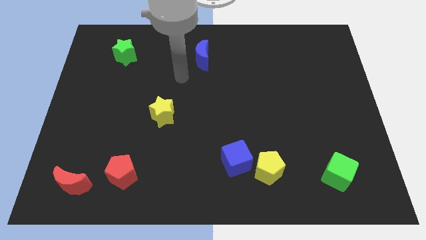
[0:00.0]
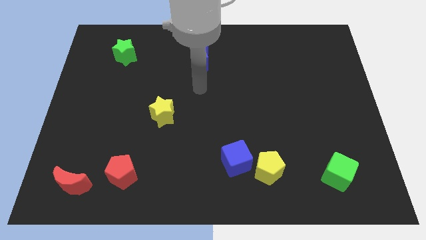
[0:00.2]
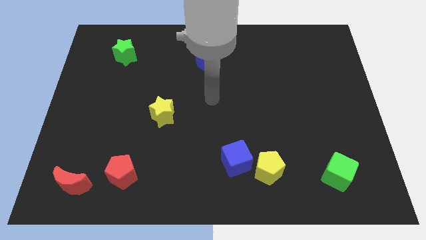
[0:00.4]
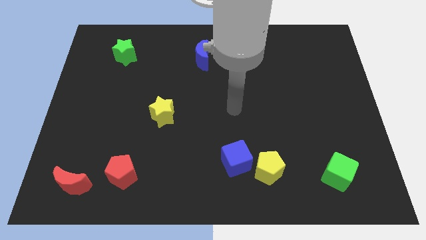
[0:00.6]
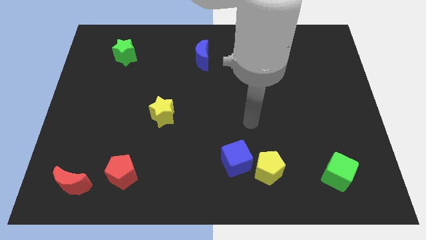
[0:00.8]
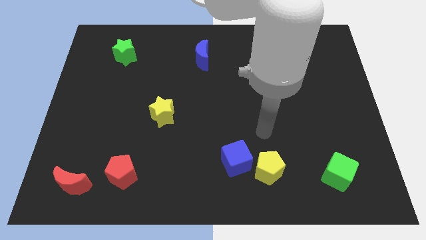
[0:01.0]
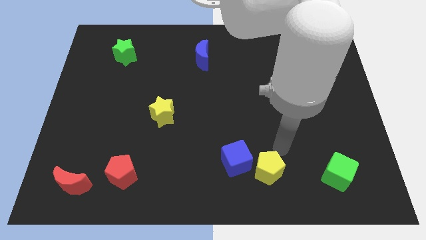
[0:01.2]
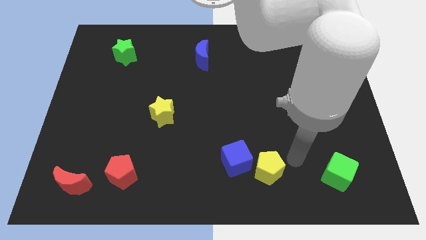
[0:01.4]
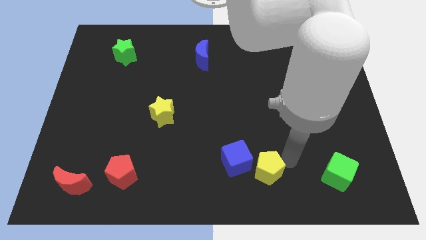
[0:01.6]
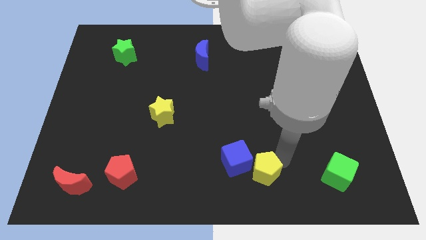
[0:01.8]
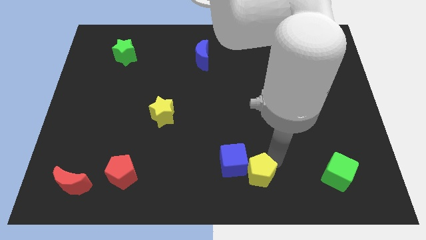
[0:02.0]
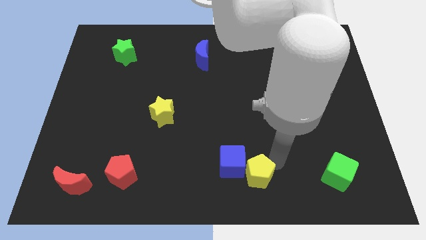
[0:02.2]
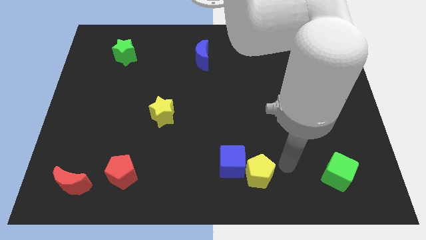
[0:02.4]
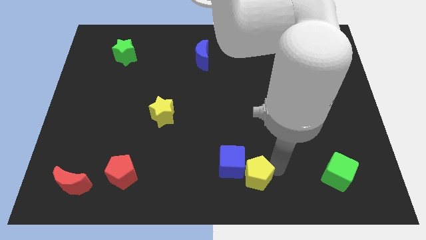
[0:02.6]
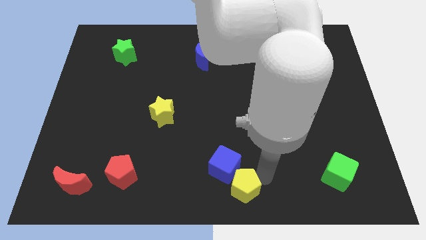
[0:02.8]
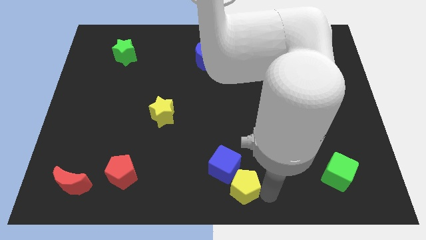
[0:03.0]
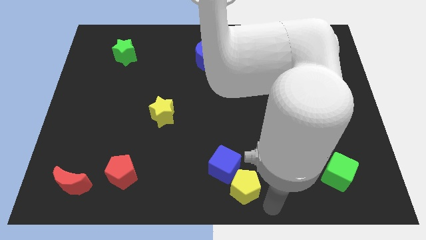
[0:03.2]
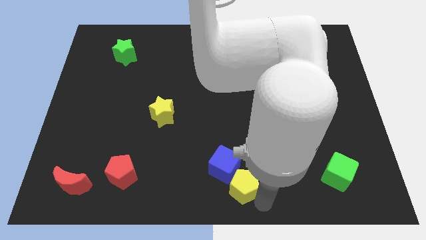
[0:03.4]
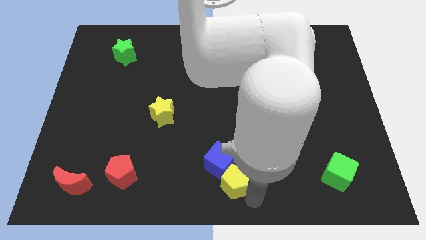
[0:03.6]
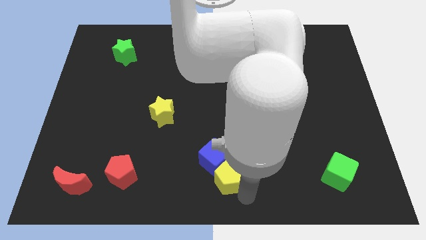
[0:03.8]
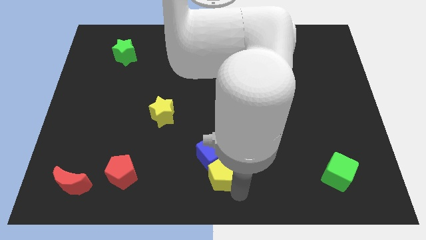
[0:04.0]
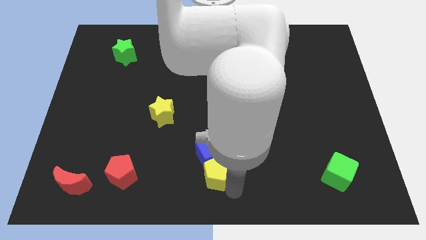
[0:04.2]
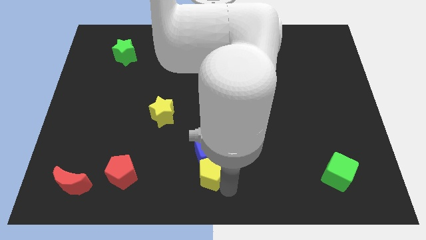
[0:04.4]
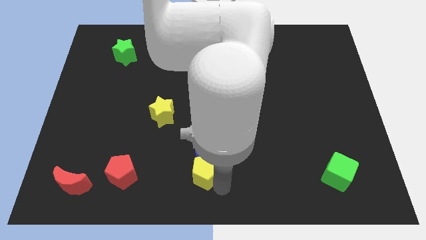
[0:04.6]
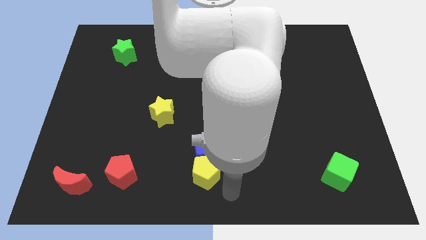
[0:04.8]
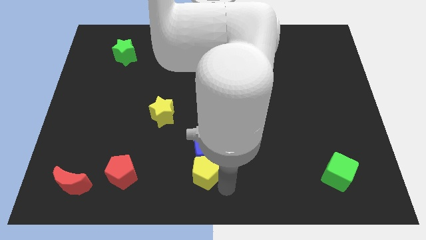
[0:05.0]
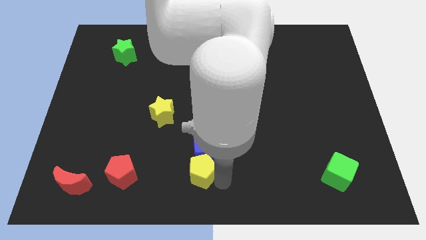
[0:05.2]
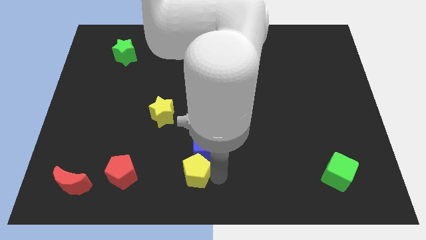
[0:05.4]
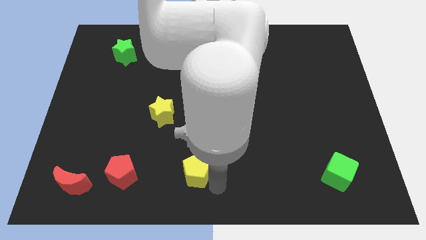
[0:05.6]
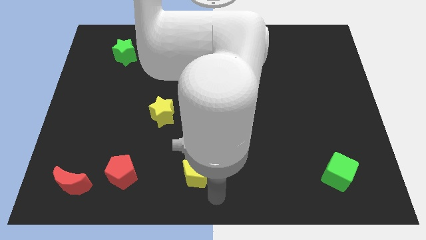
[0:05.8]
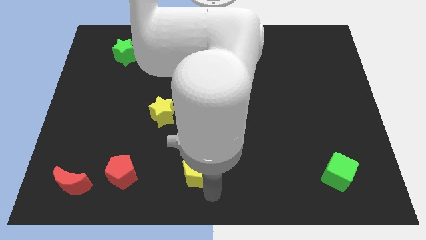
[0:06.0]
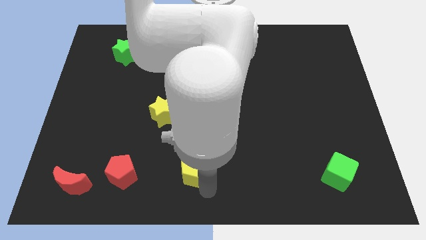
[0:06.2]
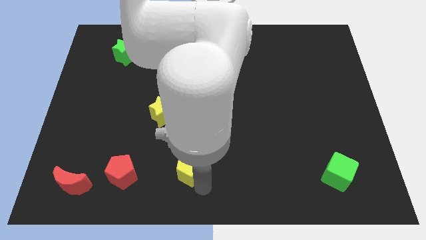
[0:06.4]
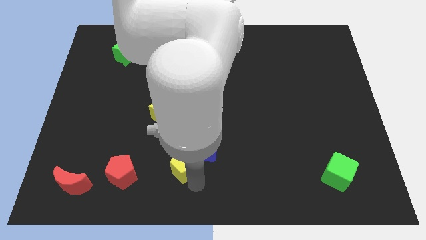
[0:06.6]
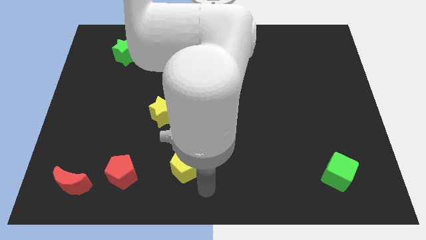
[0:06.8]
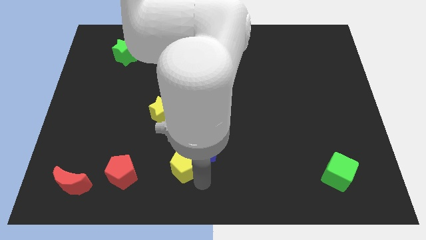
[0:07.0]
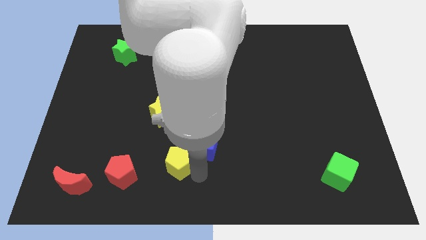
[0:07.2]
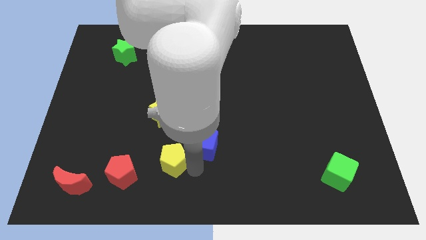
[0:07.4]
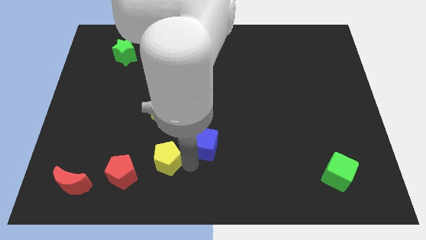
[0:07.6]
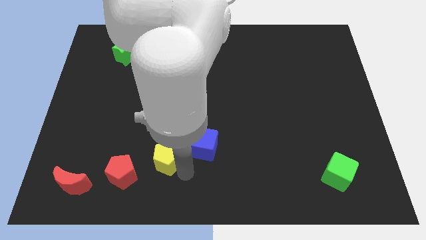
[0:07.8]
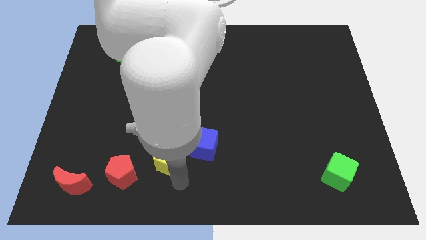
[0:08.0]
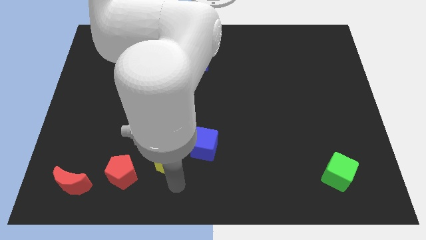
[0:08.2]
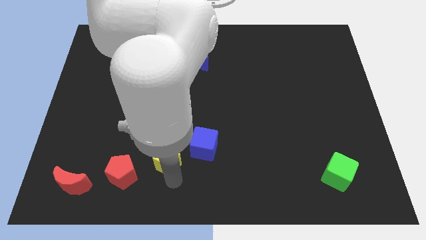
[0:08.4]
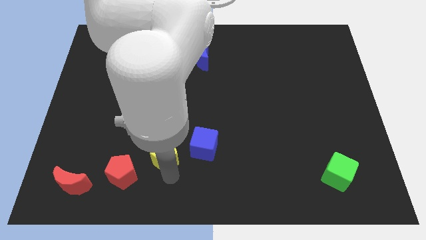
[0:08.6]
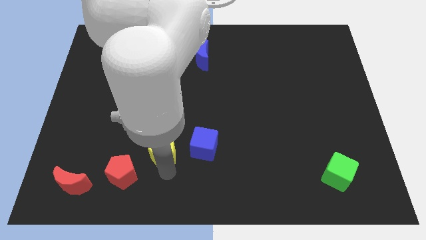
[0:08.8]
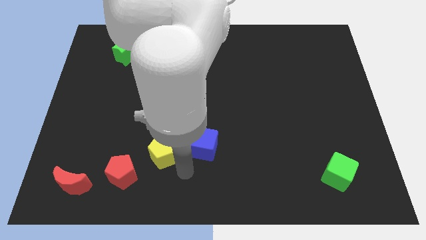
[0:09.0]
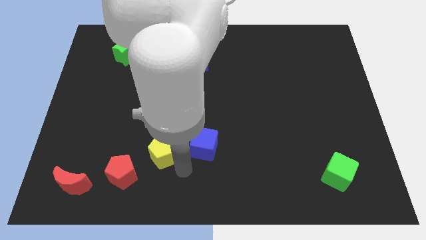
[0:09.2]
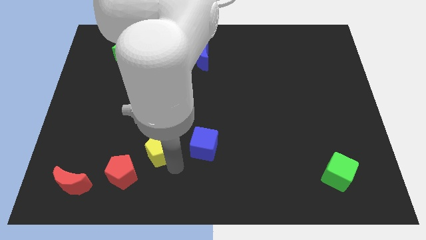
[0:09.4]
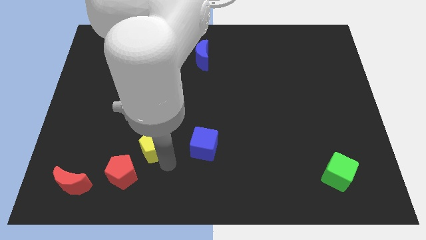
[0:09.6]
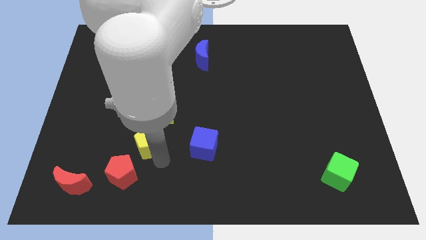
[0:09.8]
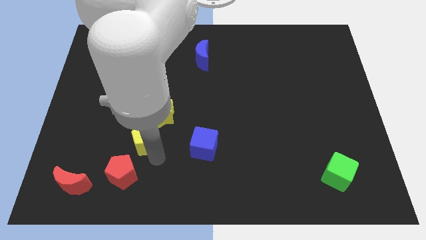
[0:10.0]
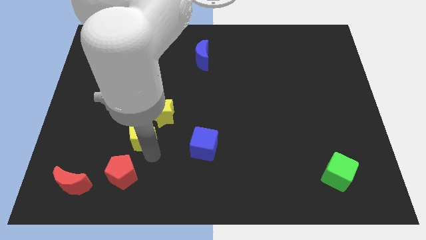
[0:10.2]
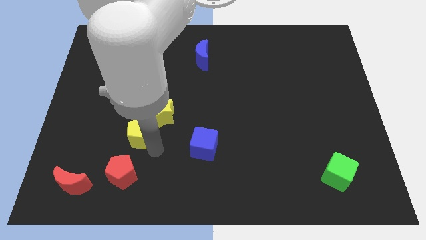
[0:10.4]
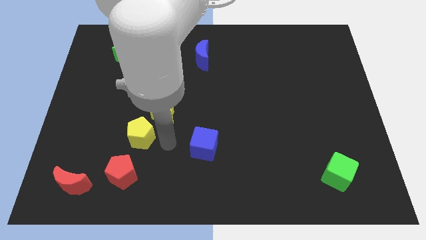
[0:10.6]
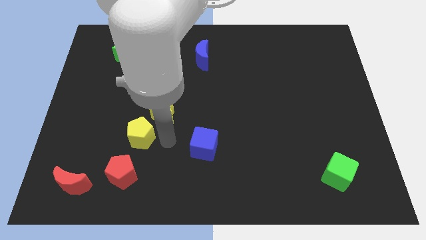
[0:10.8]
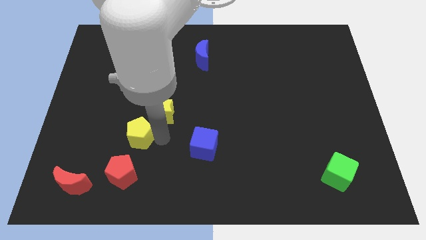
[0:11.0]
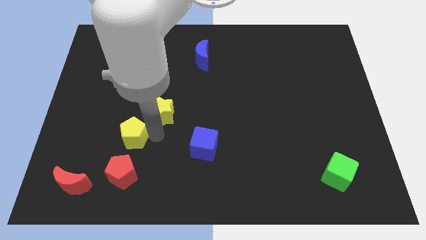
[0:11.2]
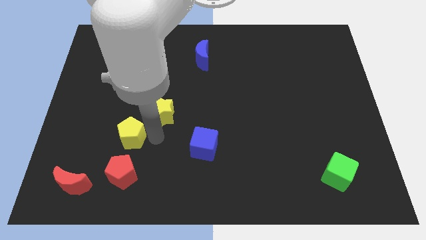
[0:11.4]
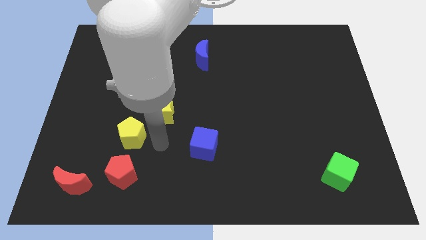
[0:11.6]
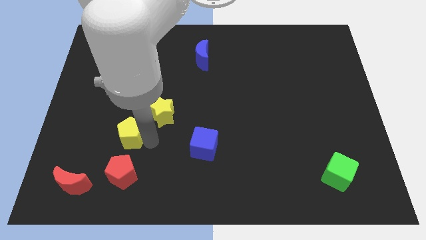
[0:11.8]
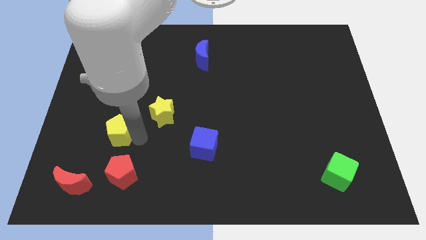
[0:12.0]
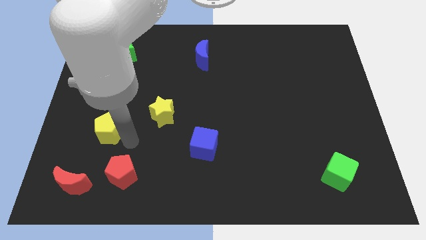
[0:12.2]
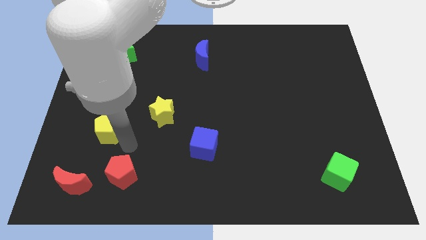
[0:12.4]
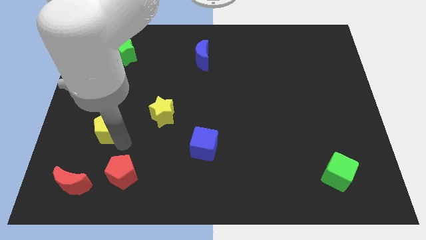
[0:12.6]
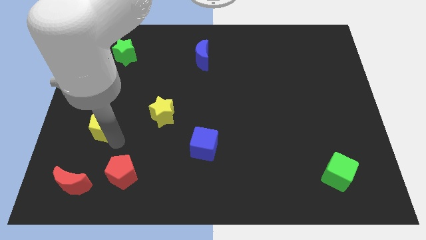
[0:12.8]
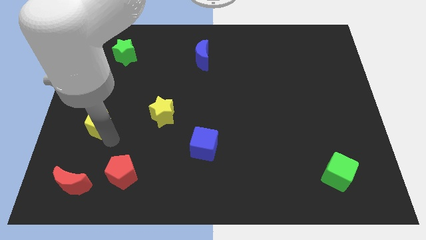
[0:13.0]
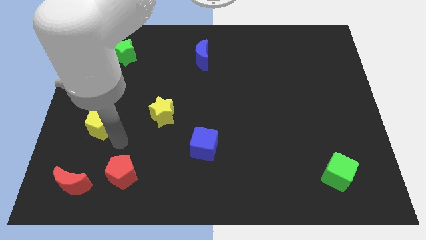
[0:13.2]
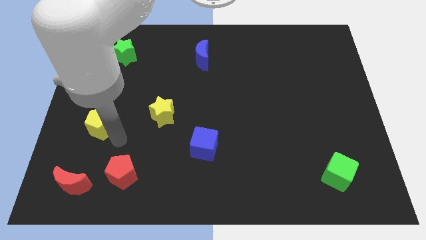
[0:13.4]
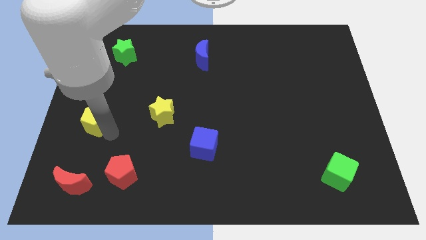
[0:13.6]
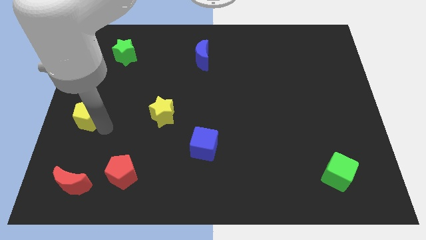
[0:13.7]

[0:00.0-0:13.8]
move the yellow pentagon to the left side of the board
